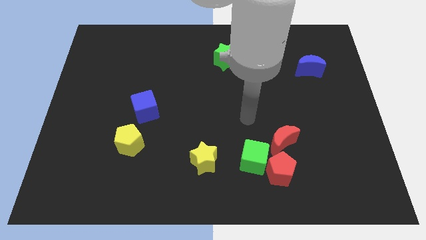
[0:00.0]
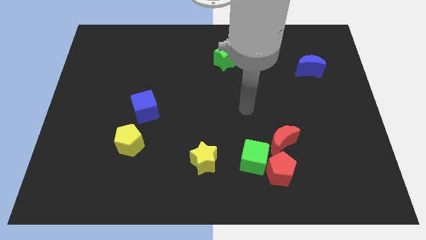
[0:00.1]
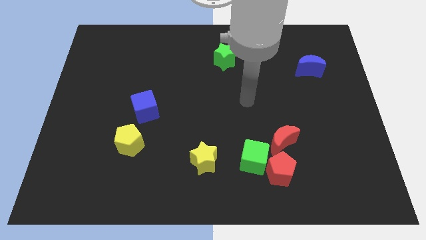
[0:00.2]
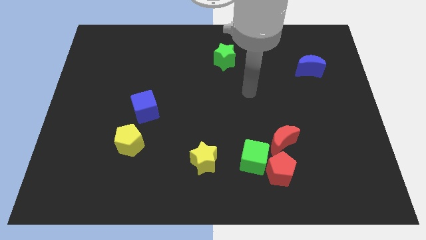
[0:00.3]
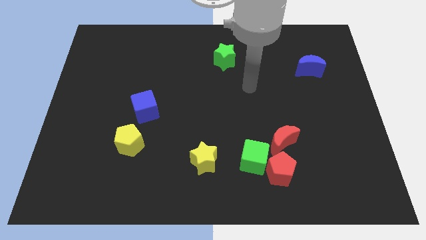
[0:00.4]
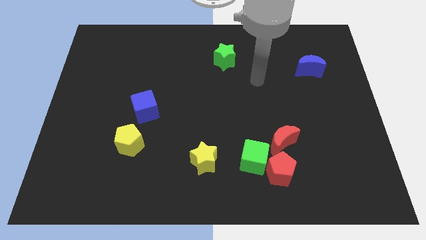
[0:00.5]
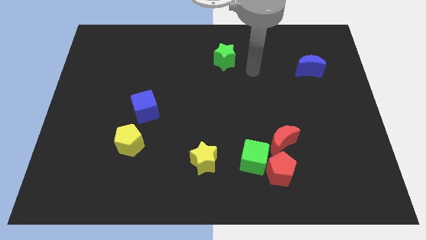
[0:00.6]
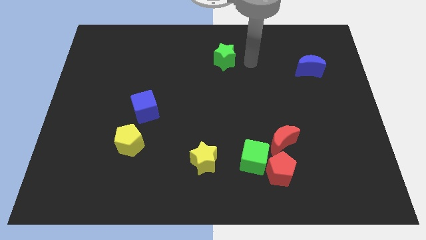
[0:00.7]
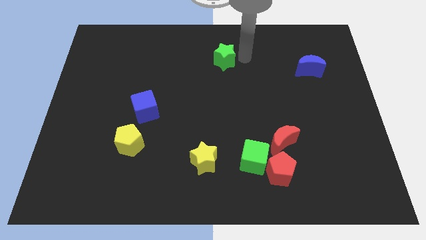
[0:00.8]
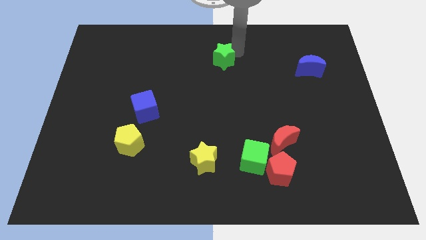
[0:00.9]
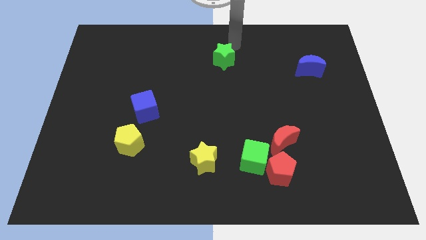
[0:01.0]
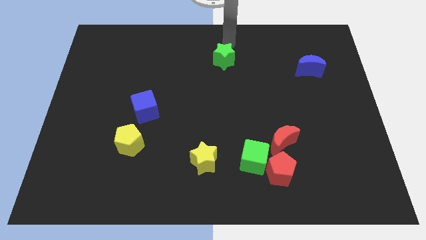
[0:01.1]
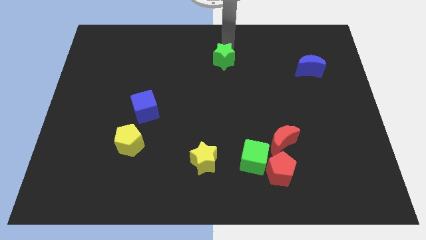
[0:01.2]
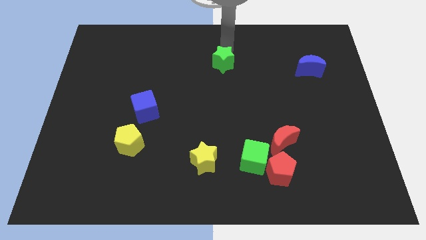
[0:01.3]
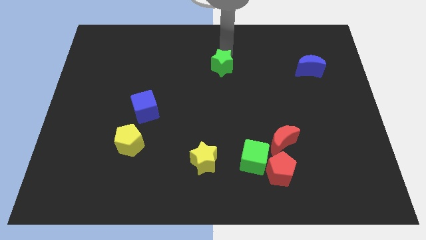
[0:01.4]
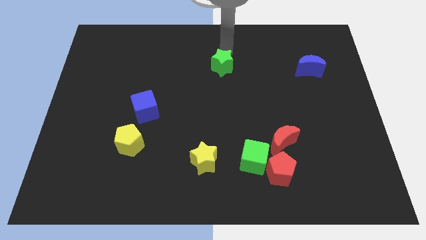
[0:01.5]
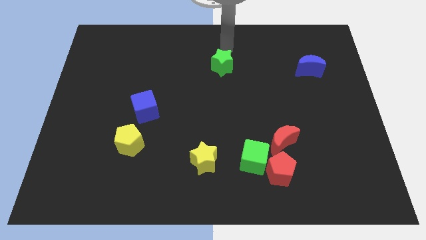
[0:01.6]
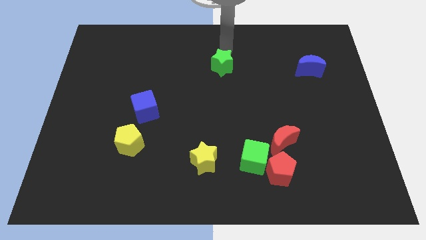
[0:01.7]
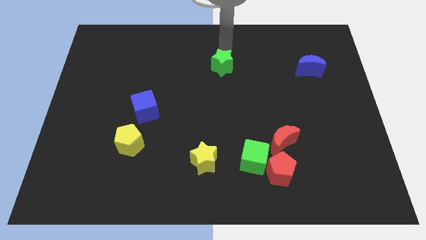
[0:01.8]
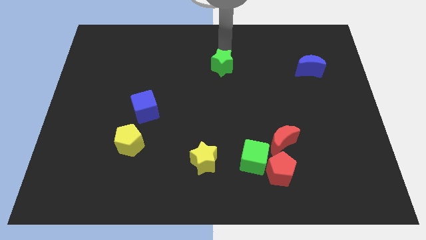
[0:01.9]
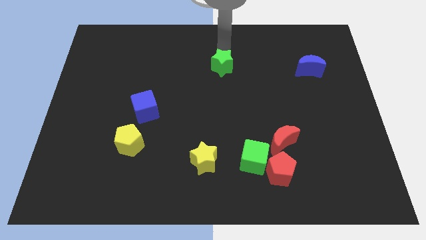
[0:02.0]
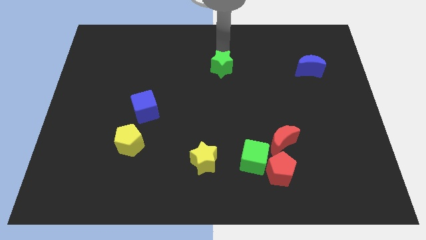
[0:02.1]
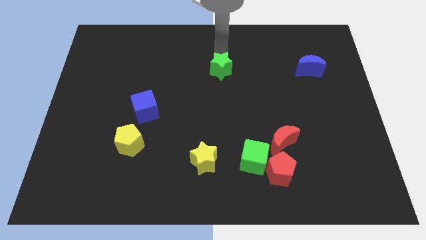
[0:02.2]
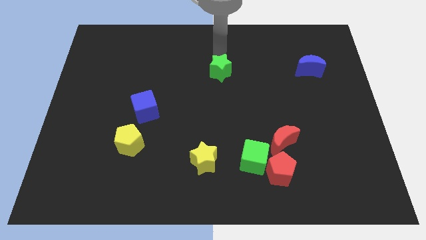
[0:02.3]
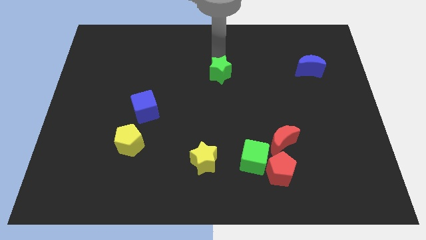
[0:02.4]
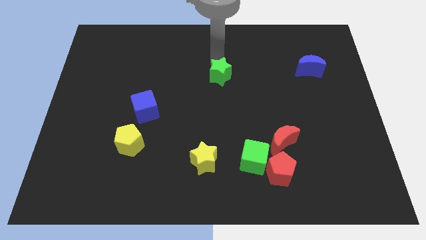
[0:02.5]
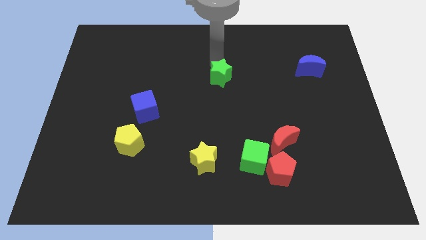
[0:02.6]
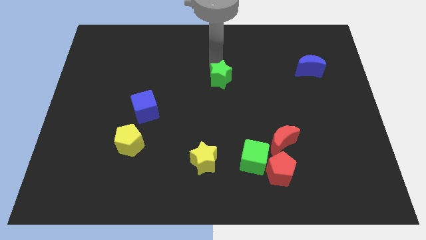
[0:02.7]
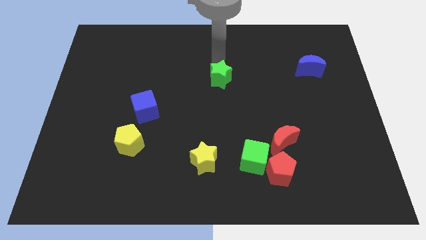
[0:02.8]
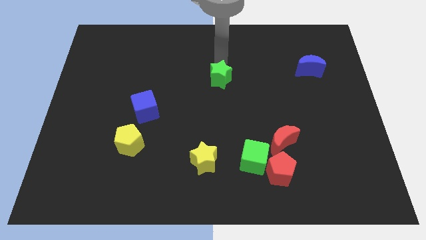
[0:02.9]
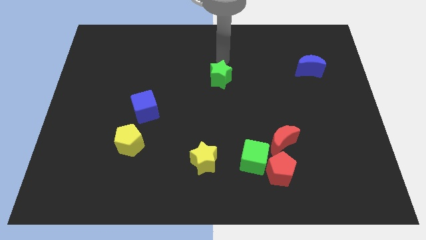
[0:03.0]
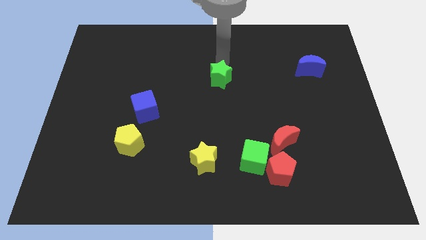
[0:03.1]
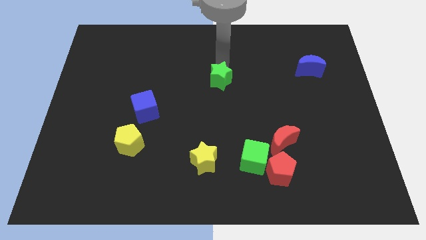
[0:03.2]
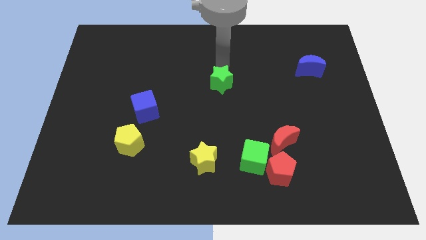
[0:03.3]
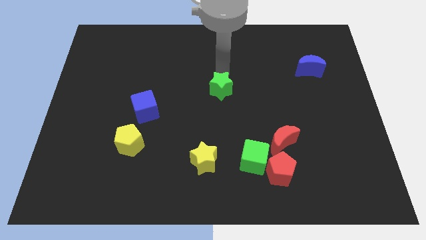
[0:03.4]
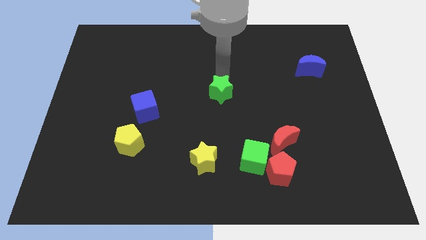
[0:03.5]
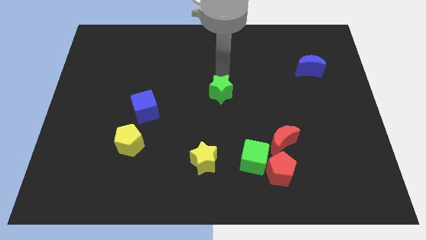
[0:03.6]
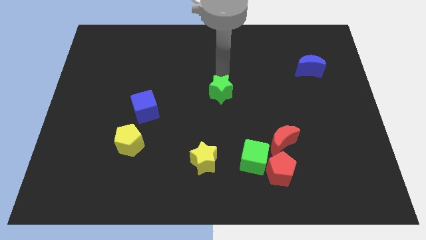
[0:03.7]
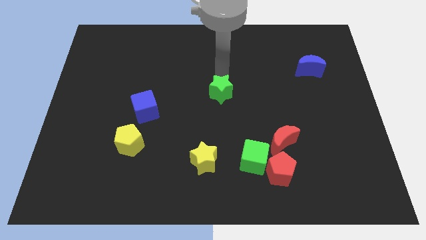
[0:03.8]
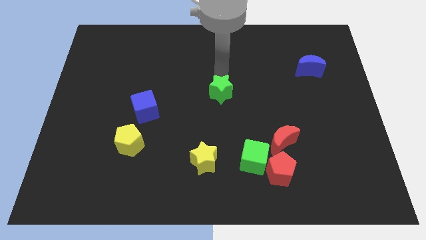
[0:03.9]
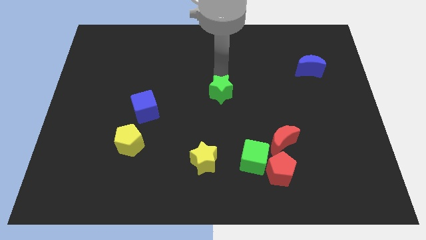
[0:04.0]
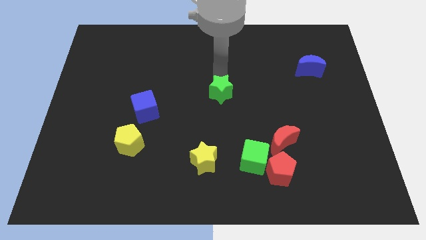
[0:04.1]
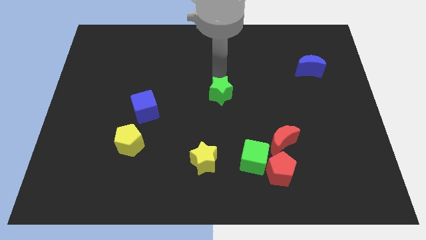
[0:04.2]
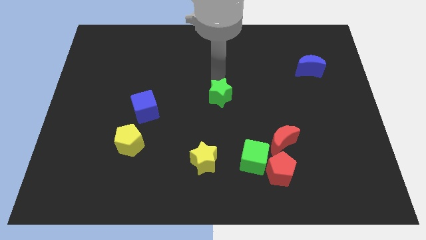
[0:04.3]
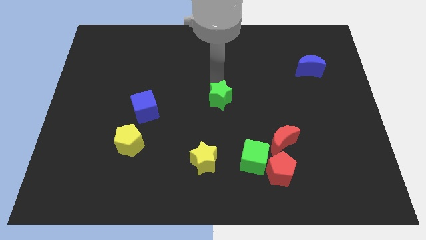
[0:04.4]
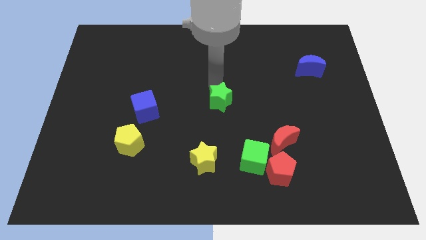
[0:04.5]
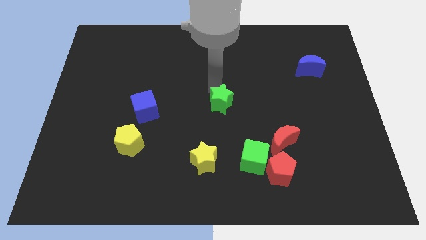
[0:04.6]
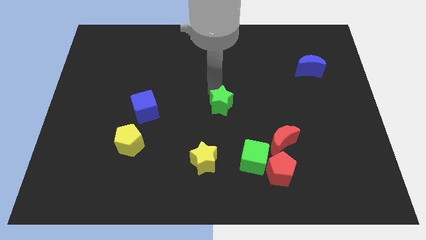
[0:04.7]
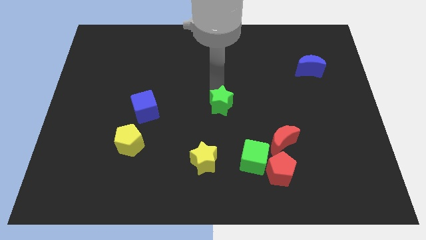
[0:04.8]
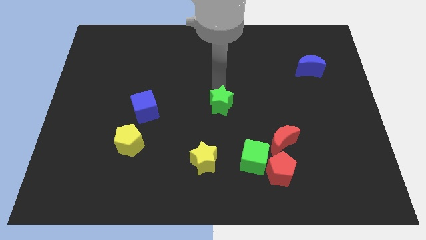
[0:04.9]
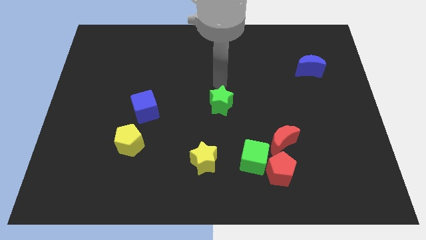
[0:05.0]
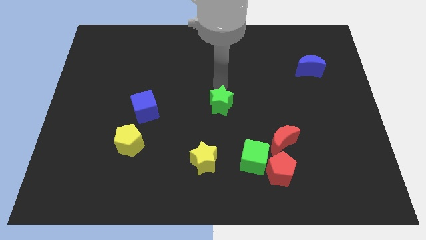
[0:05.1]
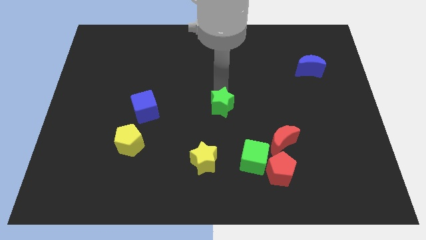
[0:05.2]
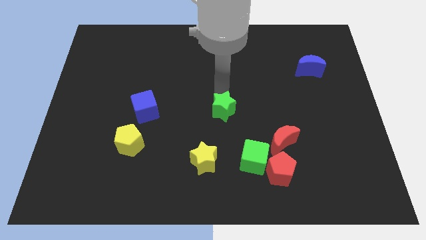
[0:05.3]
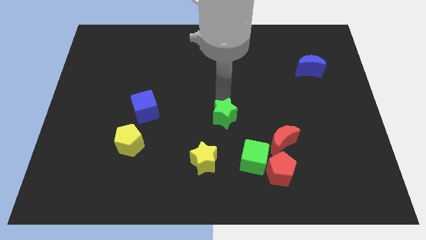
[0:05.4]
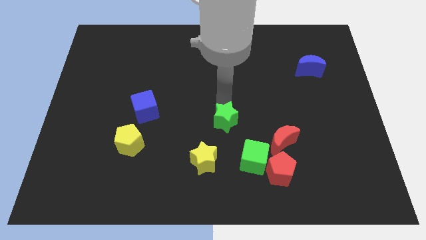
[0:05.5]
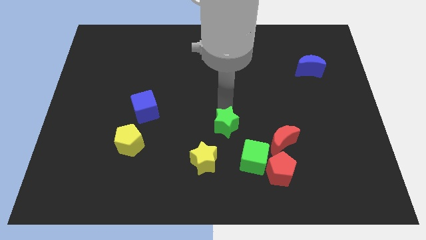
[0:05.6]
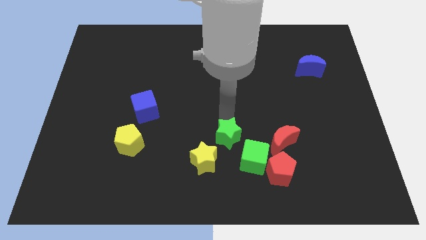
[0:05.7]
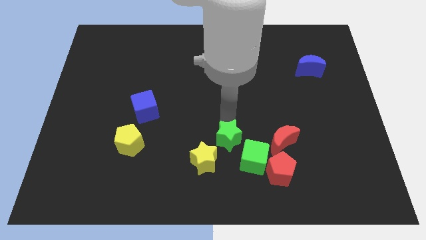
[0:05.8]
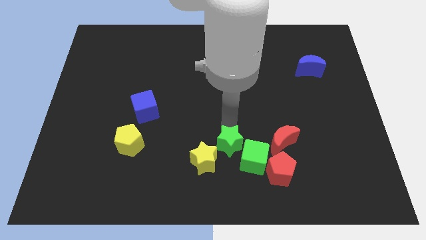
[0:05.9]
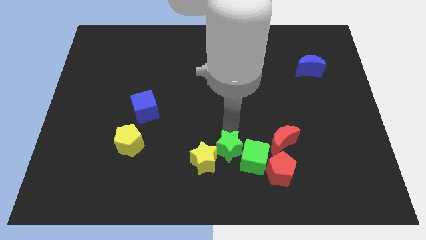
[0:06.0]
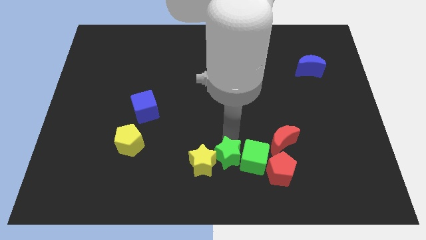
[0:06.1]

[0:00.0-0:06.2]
slide the green star just left of the red pentagon

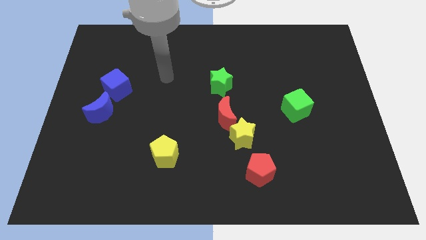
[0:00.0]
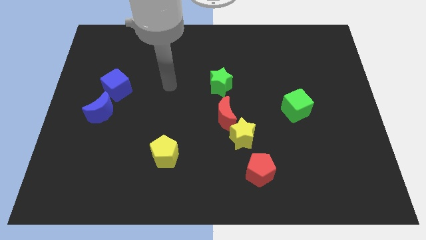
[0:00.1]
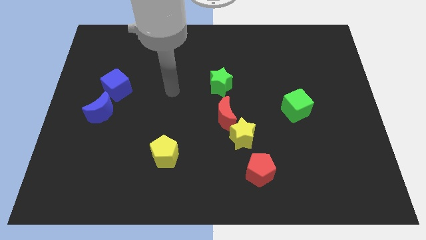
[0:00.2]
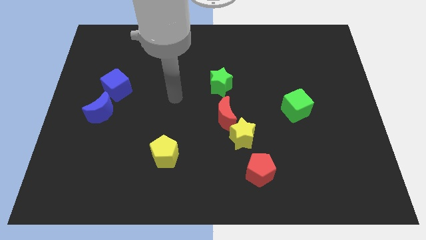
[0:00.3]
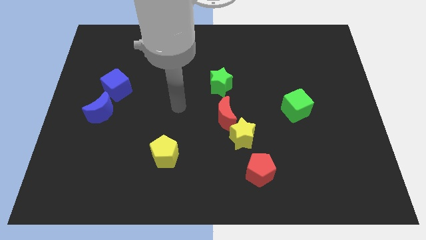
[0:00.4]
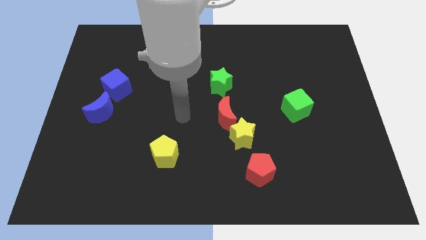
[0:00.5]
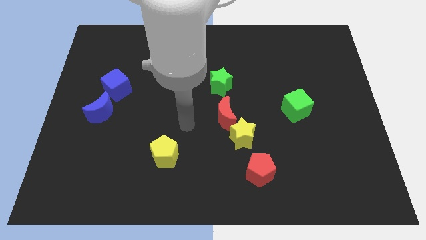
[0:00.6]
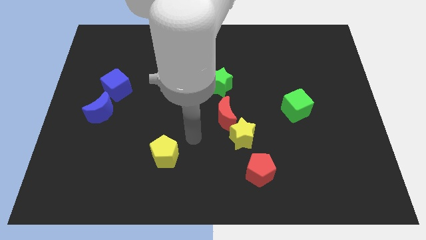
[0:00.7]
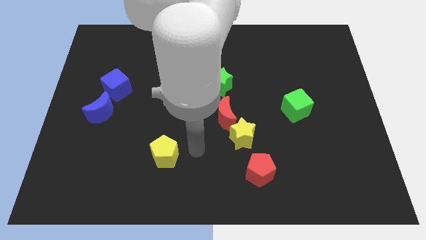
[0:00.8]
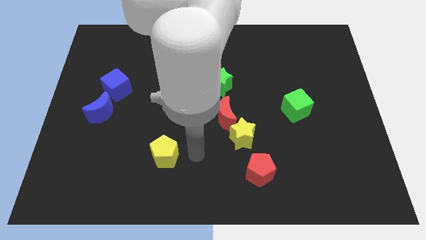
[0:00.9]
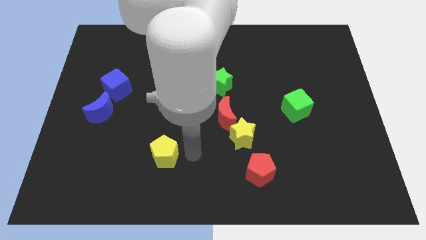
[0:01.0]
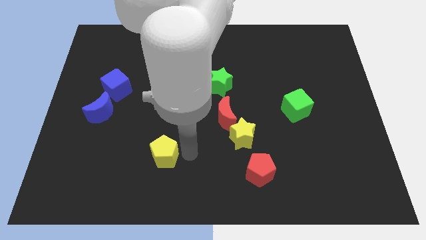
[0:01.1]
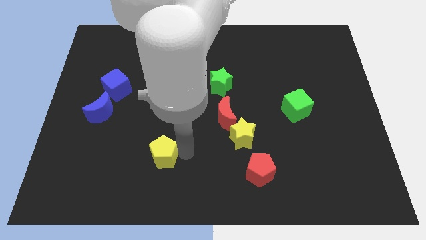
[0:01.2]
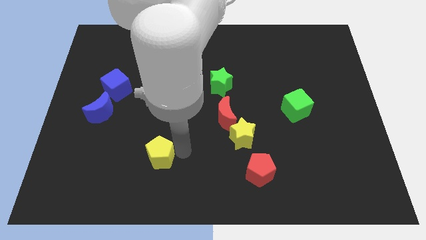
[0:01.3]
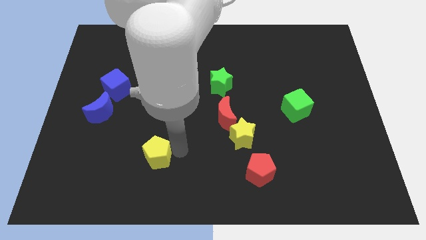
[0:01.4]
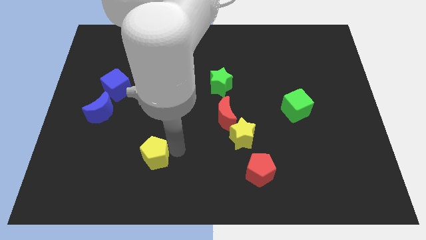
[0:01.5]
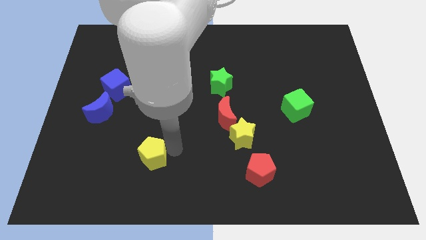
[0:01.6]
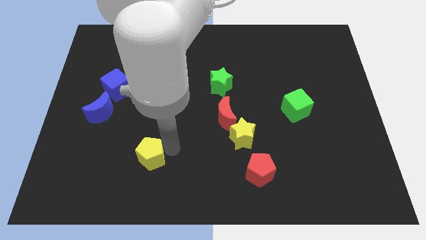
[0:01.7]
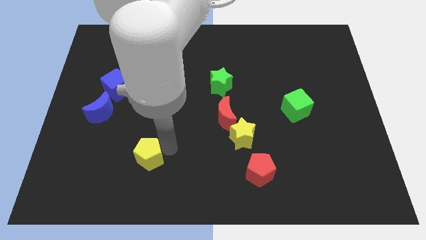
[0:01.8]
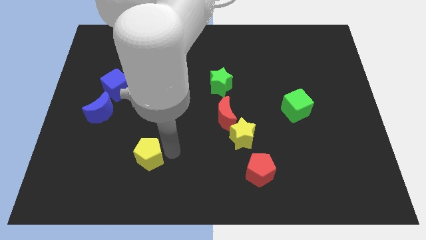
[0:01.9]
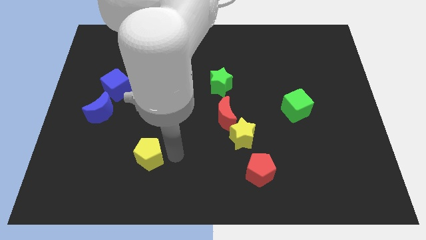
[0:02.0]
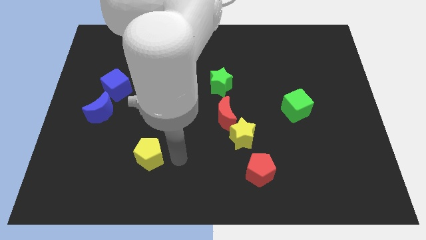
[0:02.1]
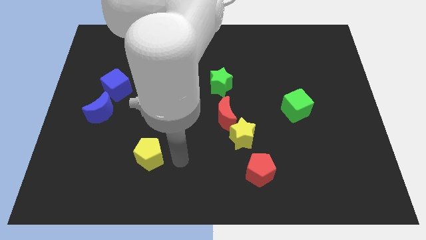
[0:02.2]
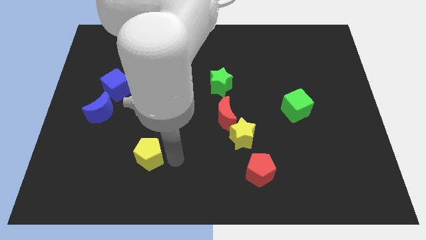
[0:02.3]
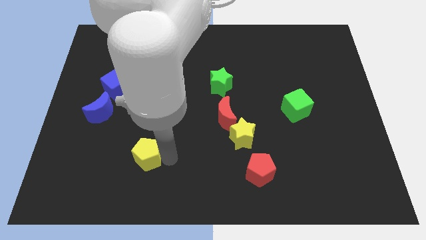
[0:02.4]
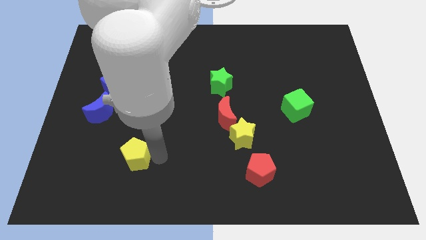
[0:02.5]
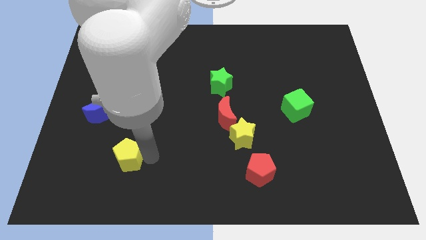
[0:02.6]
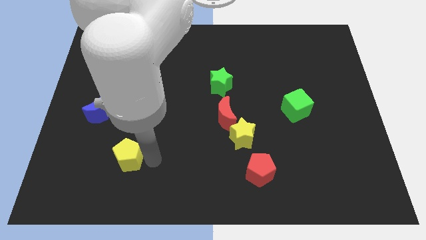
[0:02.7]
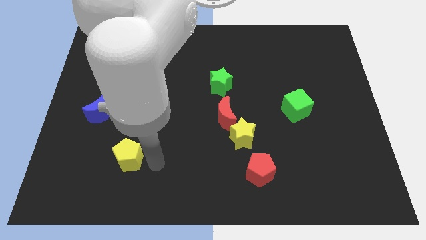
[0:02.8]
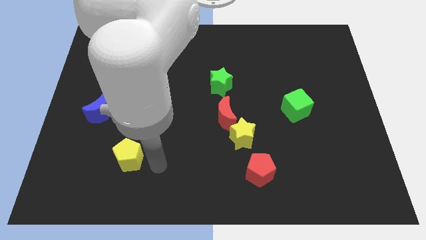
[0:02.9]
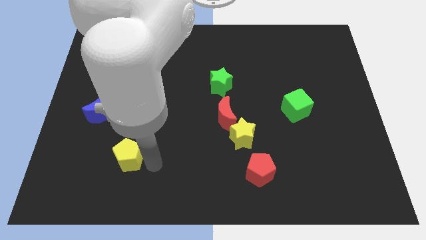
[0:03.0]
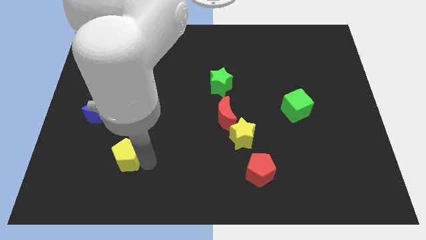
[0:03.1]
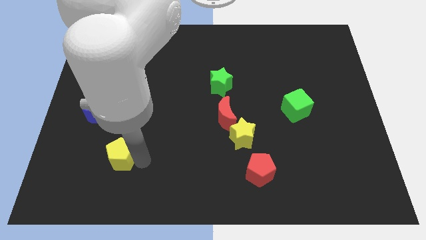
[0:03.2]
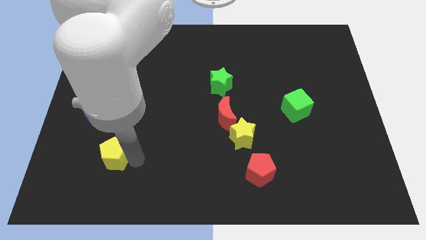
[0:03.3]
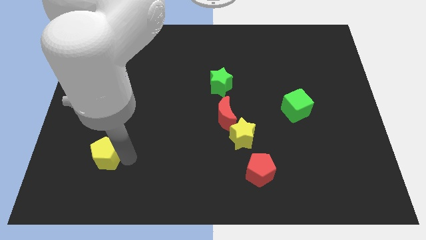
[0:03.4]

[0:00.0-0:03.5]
push the yellow pentagon to the bottom side of the blue moon
